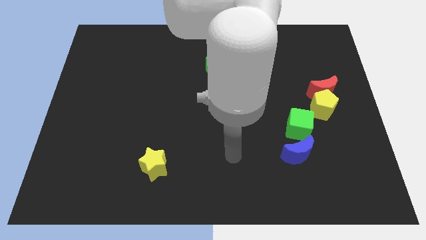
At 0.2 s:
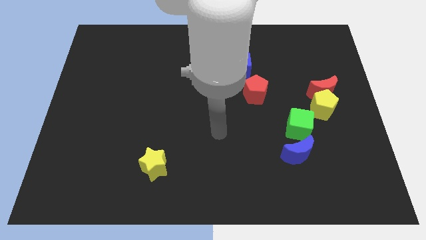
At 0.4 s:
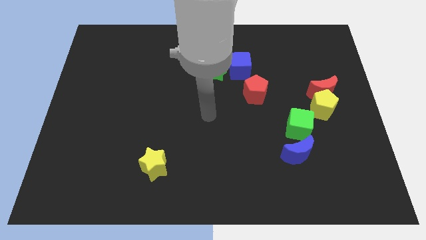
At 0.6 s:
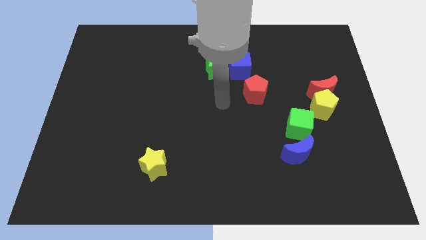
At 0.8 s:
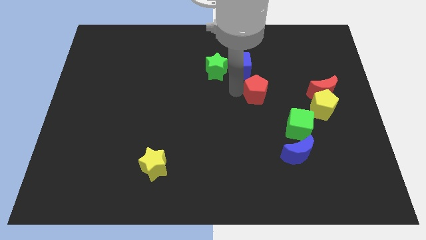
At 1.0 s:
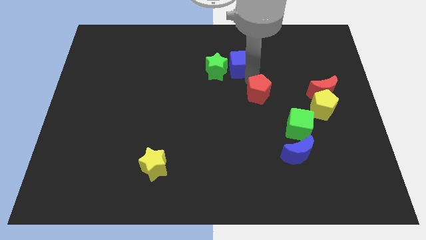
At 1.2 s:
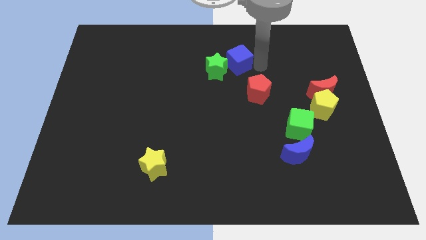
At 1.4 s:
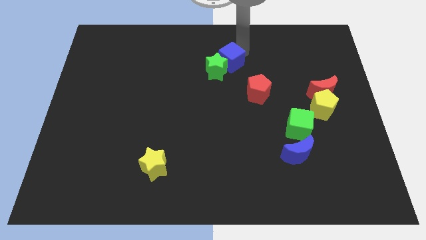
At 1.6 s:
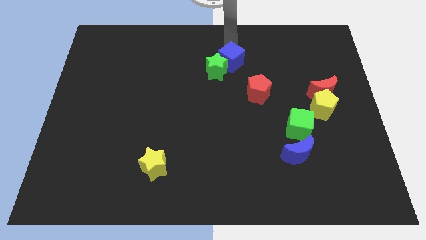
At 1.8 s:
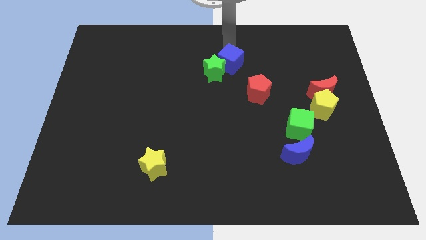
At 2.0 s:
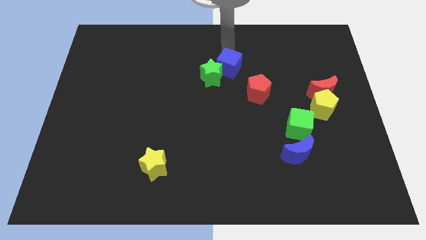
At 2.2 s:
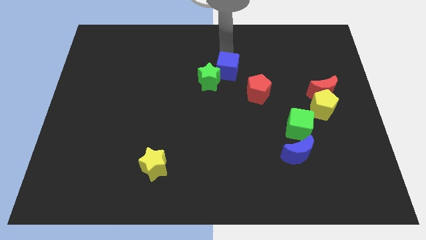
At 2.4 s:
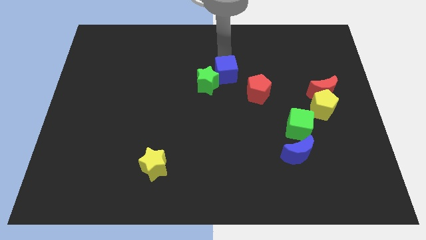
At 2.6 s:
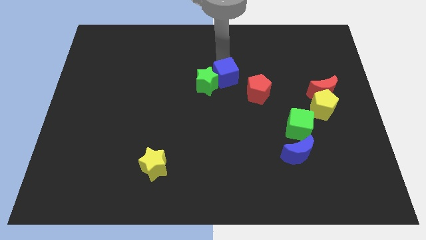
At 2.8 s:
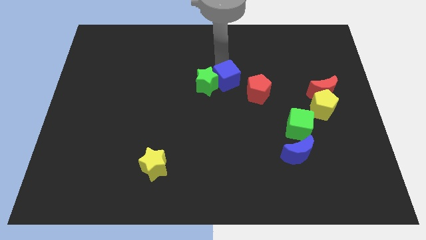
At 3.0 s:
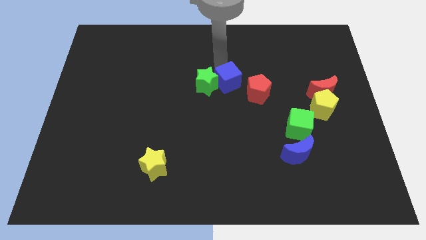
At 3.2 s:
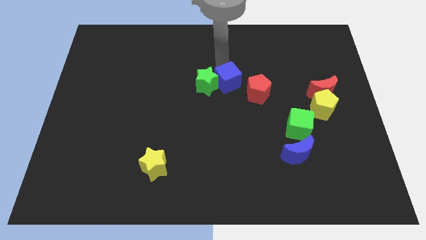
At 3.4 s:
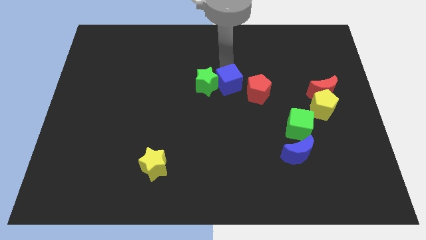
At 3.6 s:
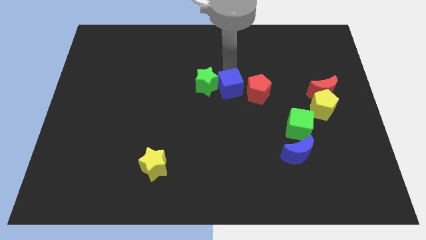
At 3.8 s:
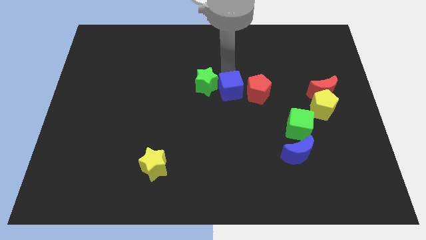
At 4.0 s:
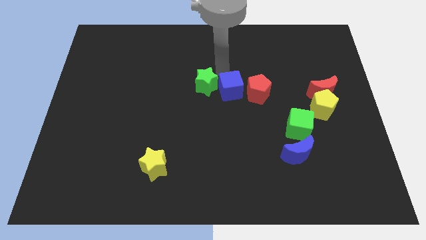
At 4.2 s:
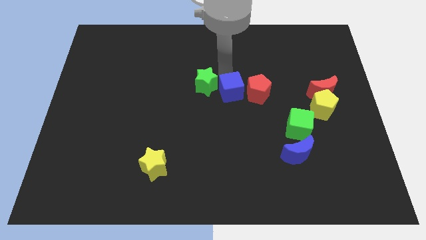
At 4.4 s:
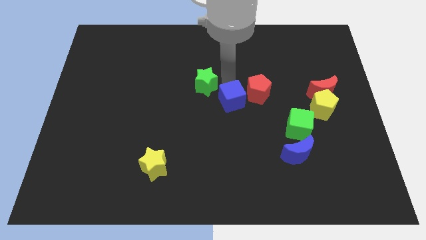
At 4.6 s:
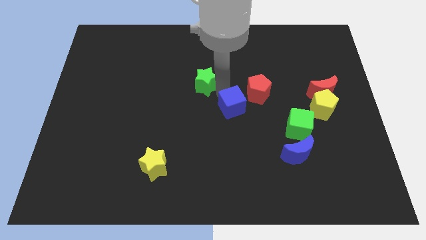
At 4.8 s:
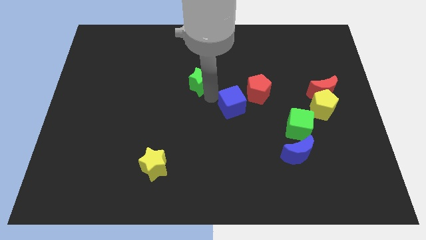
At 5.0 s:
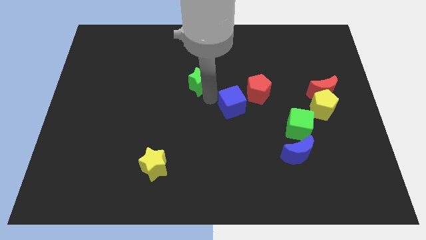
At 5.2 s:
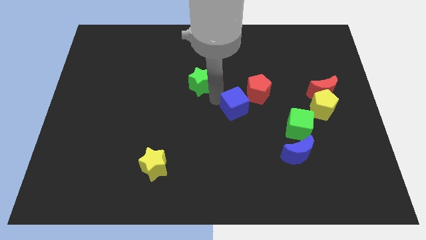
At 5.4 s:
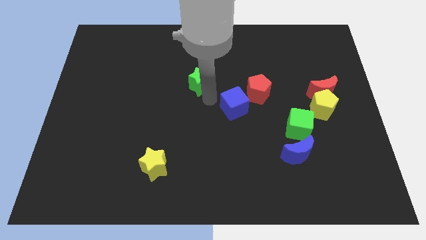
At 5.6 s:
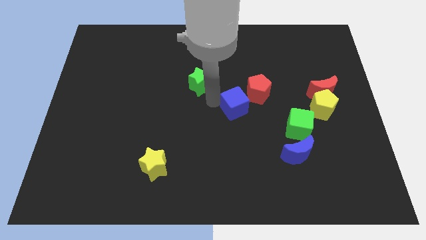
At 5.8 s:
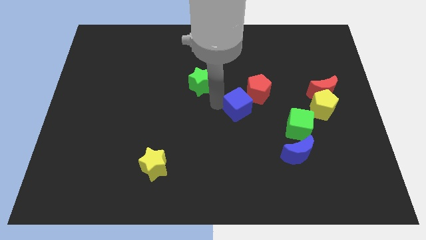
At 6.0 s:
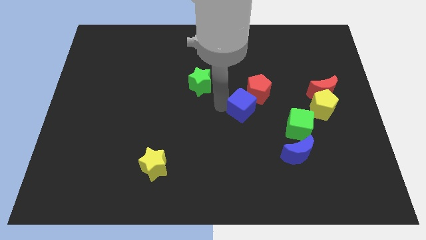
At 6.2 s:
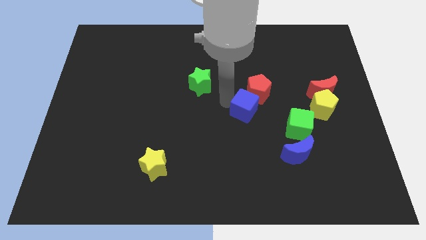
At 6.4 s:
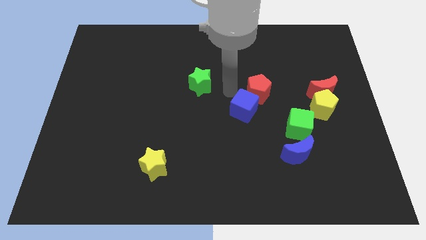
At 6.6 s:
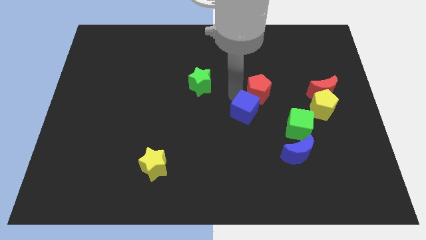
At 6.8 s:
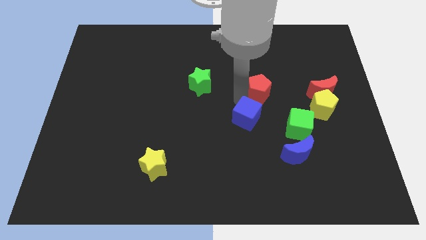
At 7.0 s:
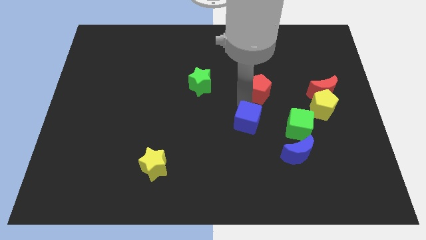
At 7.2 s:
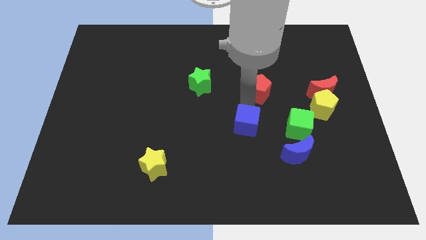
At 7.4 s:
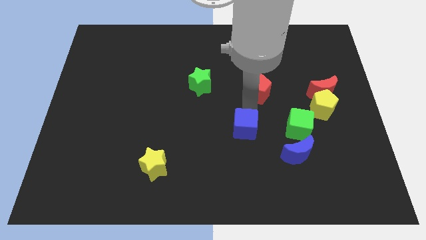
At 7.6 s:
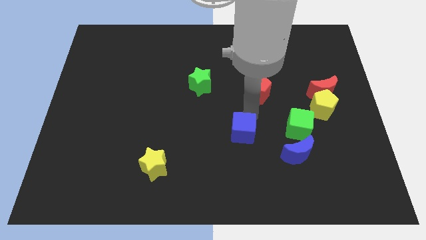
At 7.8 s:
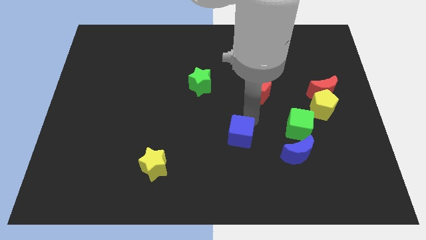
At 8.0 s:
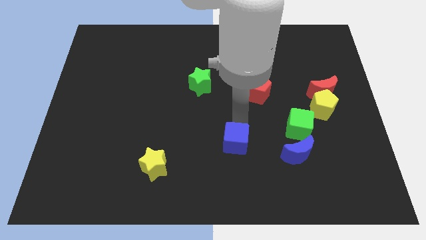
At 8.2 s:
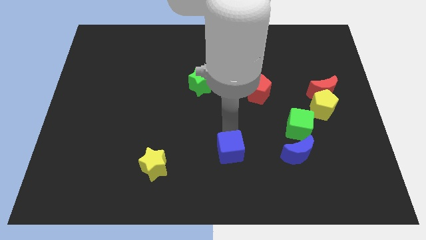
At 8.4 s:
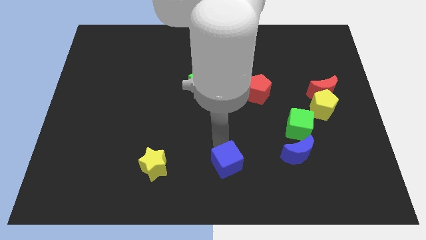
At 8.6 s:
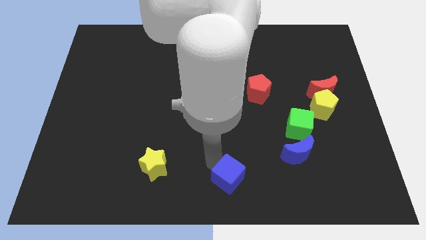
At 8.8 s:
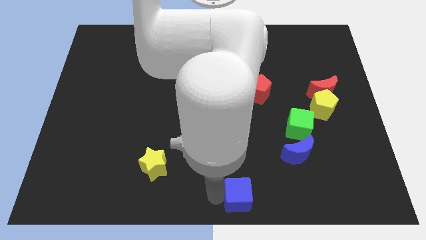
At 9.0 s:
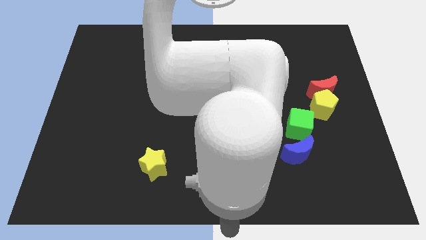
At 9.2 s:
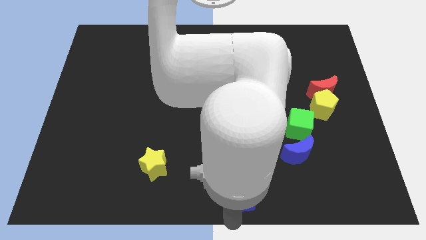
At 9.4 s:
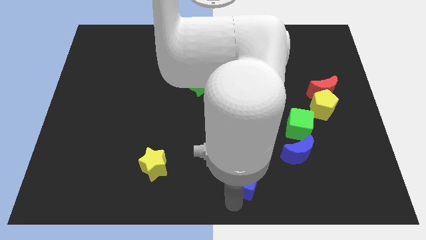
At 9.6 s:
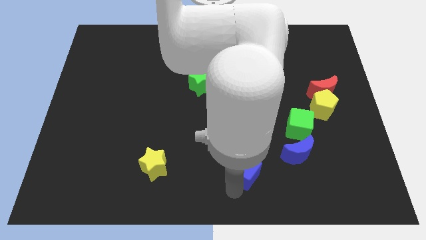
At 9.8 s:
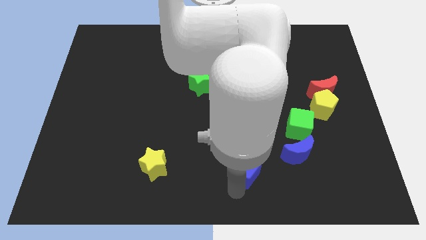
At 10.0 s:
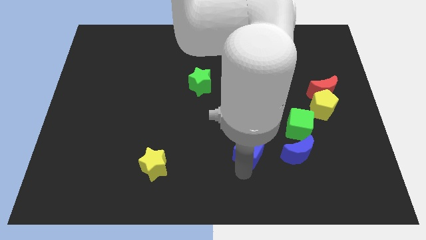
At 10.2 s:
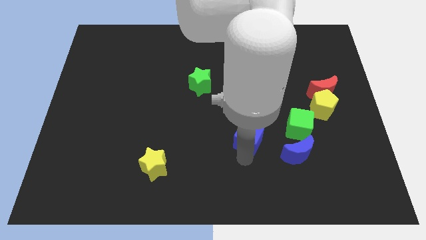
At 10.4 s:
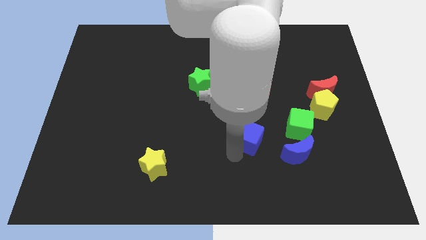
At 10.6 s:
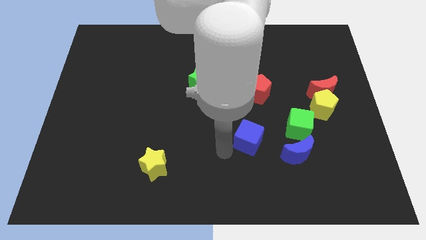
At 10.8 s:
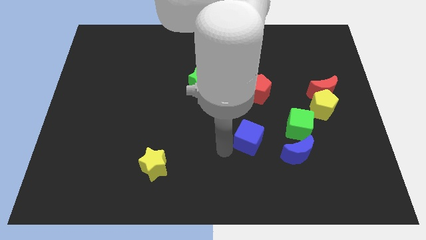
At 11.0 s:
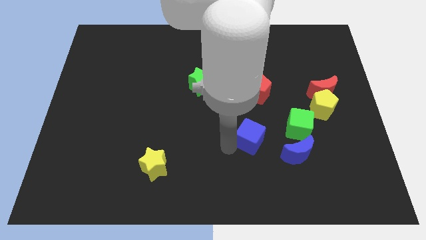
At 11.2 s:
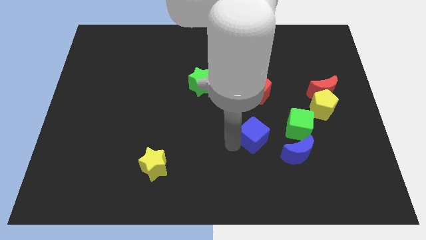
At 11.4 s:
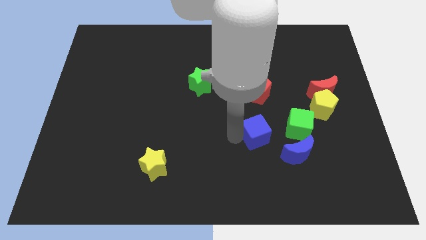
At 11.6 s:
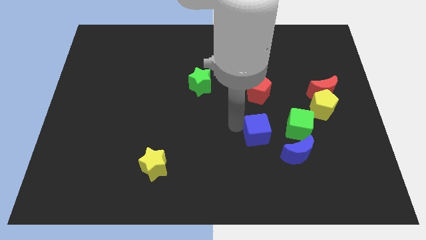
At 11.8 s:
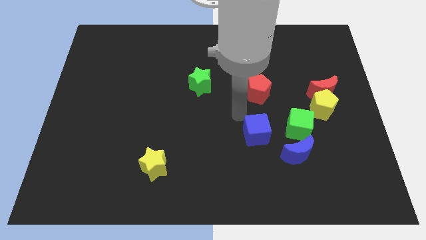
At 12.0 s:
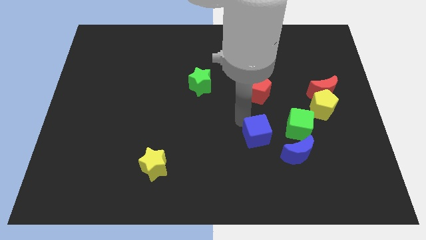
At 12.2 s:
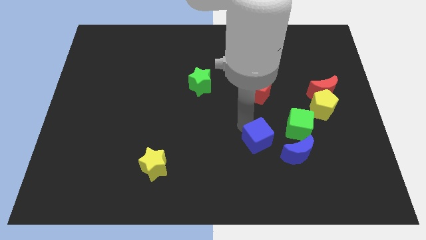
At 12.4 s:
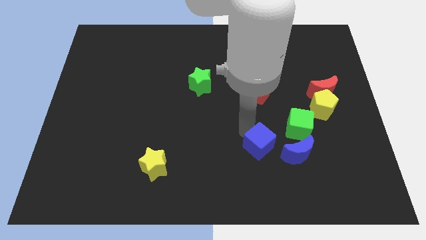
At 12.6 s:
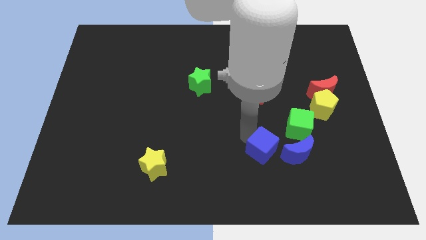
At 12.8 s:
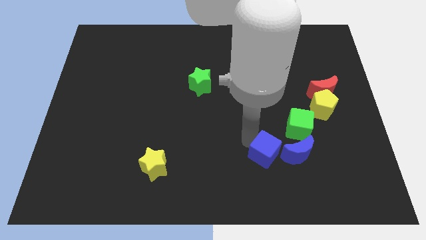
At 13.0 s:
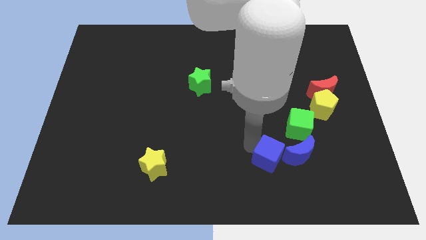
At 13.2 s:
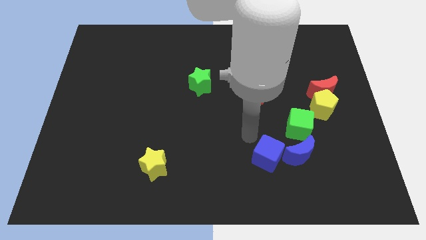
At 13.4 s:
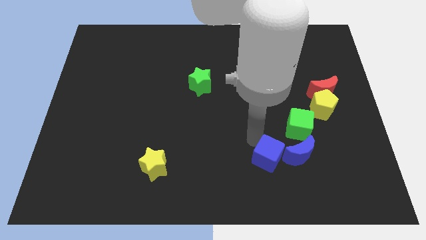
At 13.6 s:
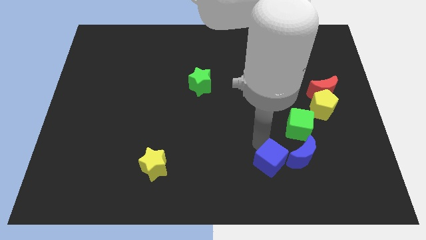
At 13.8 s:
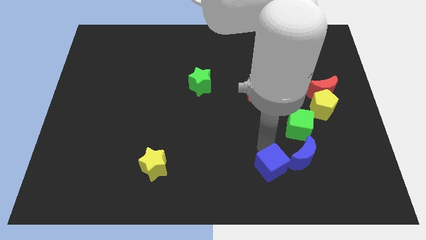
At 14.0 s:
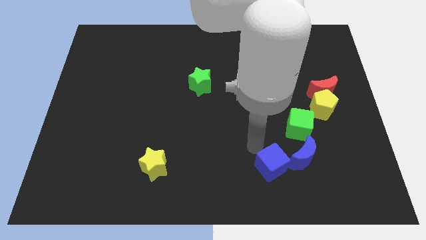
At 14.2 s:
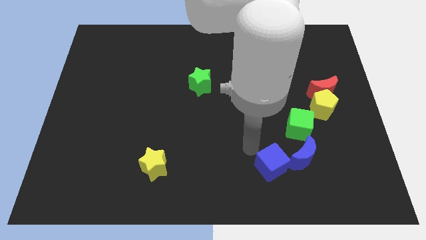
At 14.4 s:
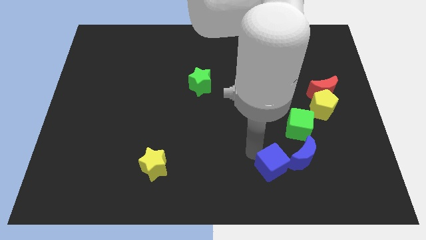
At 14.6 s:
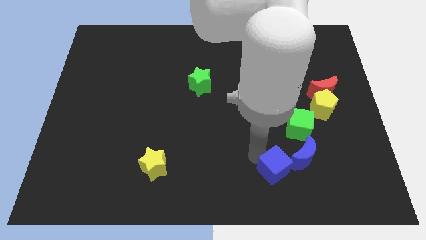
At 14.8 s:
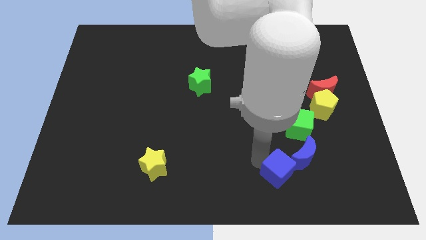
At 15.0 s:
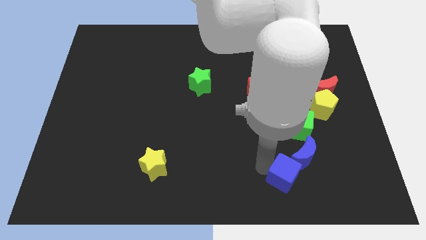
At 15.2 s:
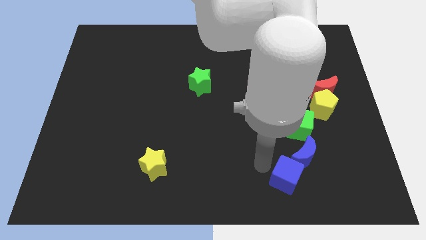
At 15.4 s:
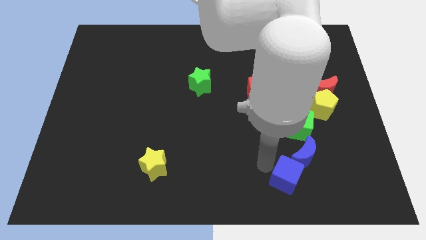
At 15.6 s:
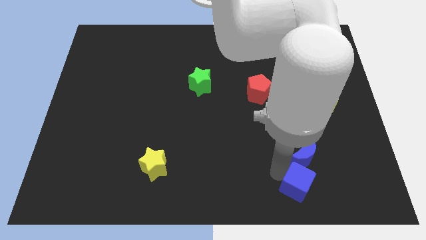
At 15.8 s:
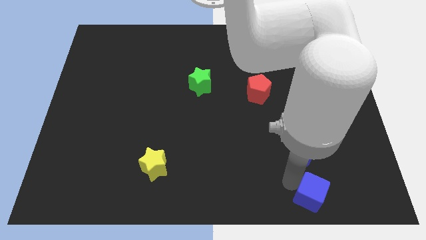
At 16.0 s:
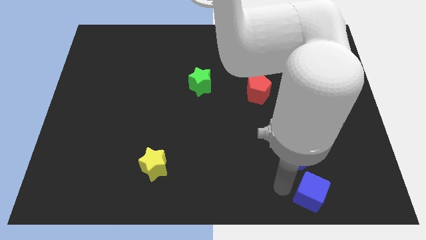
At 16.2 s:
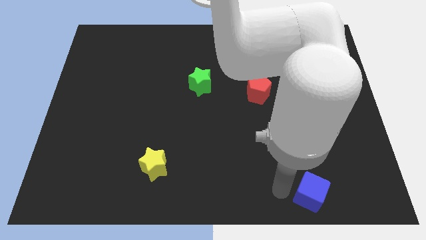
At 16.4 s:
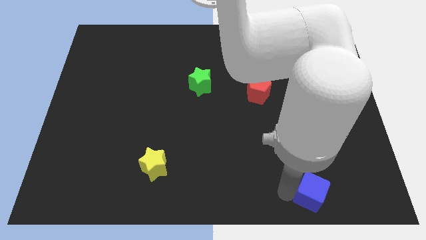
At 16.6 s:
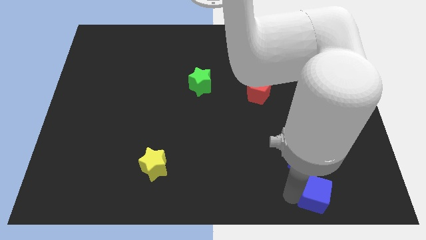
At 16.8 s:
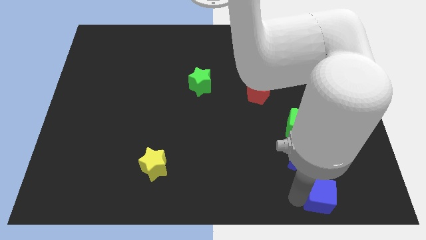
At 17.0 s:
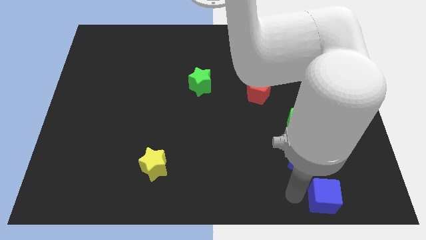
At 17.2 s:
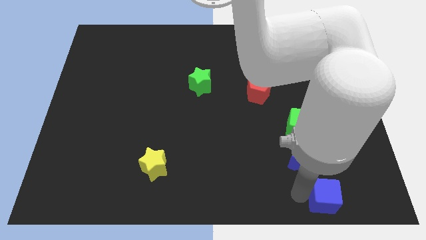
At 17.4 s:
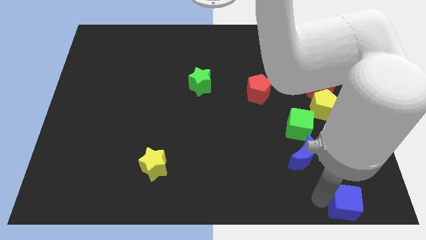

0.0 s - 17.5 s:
put the blue cube to the bottom right corner
